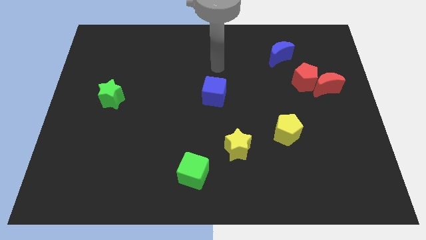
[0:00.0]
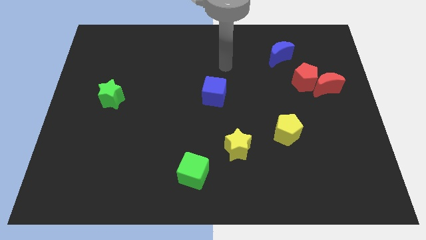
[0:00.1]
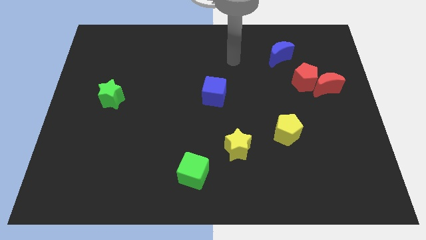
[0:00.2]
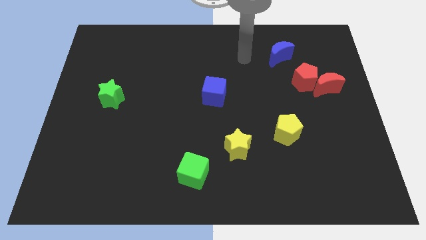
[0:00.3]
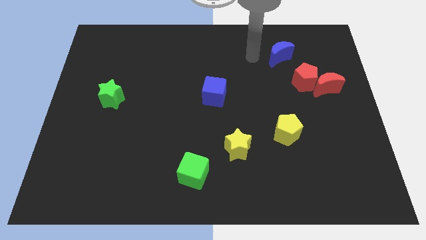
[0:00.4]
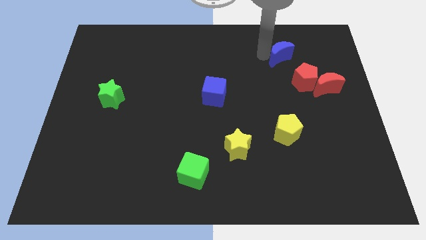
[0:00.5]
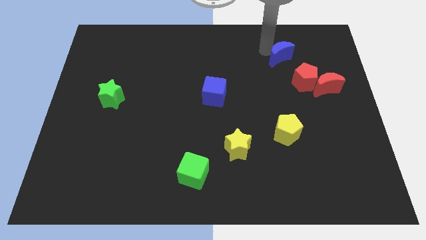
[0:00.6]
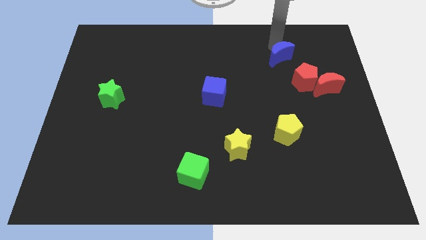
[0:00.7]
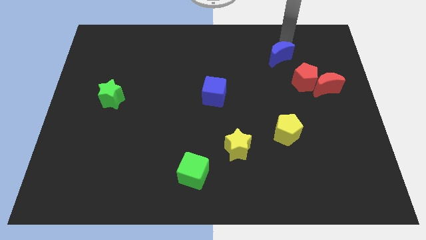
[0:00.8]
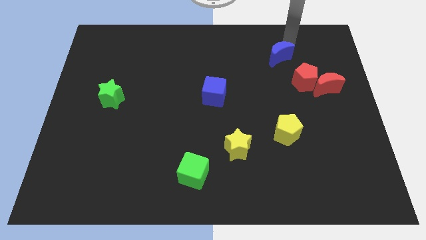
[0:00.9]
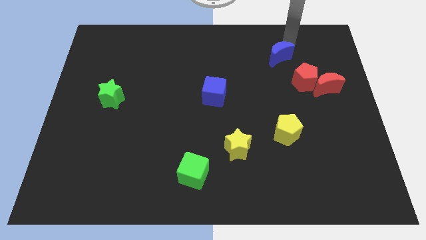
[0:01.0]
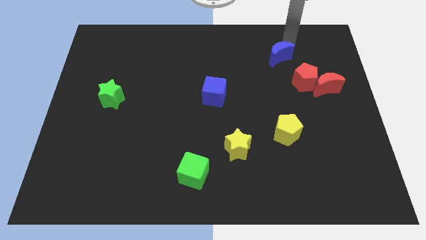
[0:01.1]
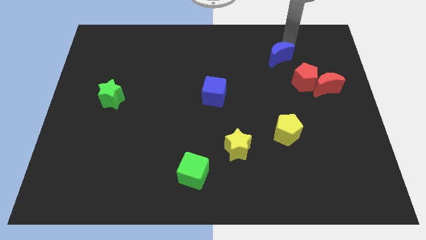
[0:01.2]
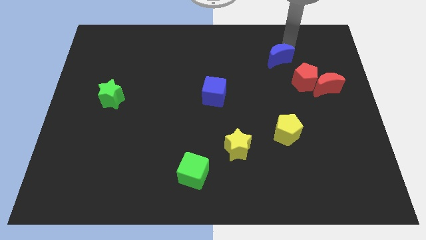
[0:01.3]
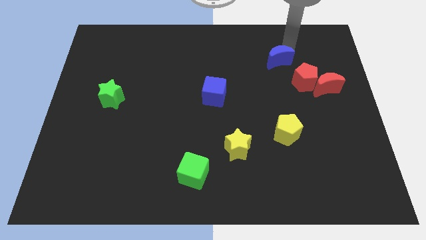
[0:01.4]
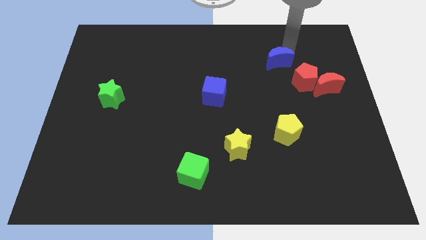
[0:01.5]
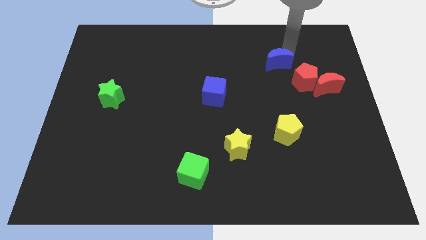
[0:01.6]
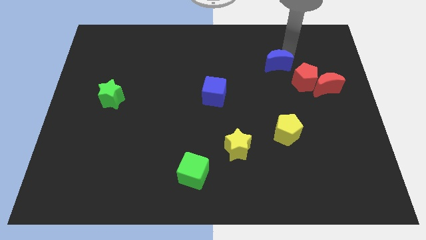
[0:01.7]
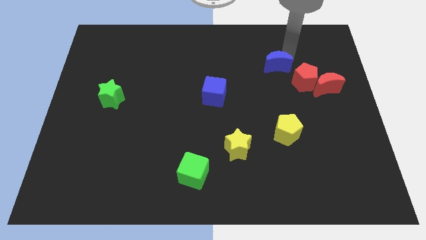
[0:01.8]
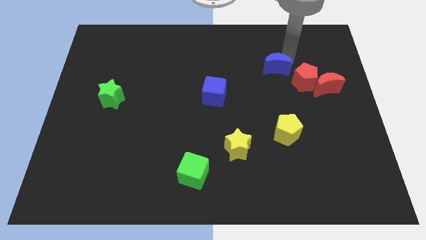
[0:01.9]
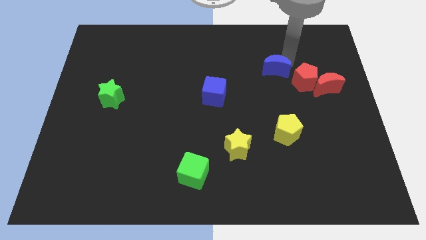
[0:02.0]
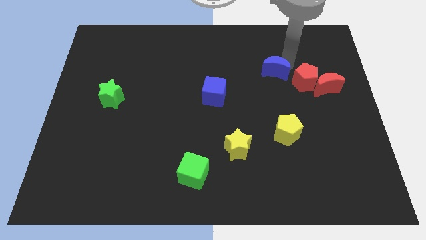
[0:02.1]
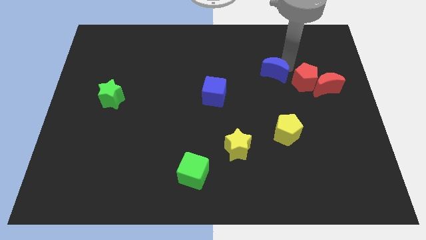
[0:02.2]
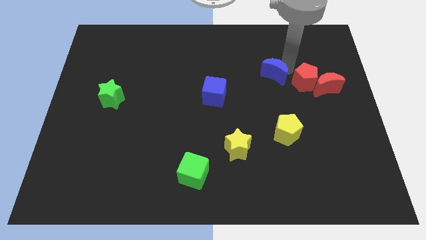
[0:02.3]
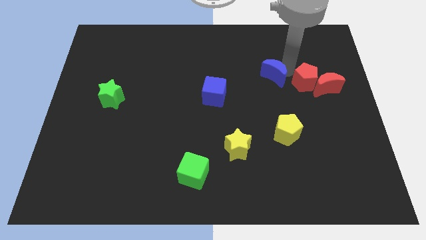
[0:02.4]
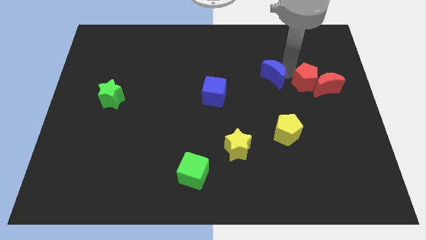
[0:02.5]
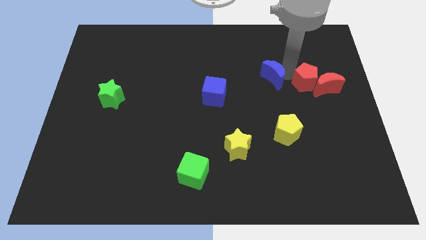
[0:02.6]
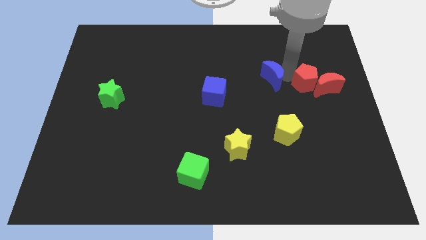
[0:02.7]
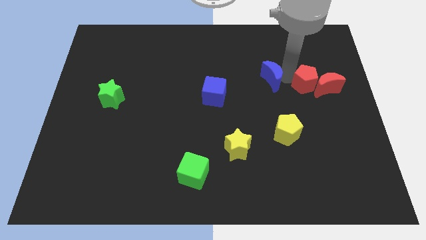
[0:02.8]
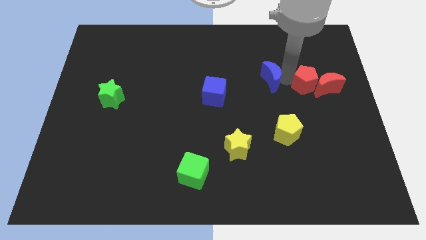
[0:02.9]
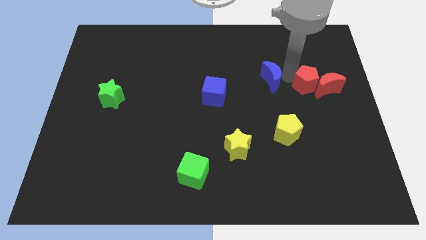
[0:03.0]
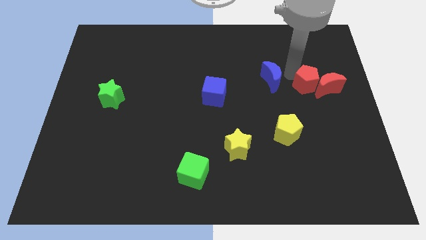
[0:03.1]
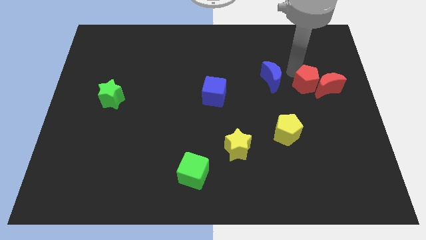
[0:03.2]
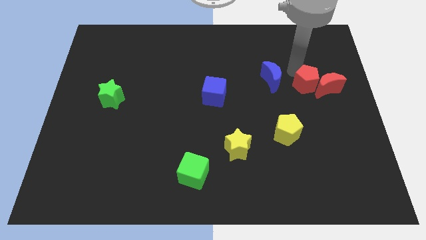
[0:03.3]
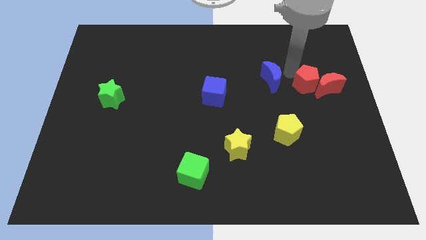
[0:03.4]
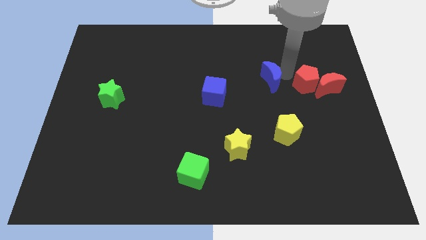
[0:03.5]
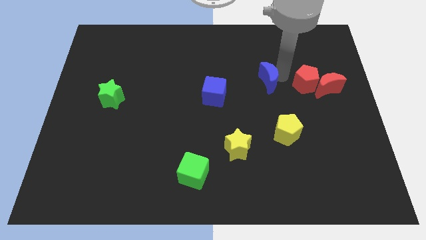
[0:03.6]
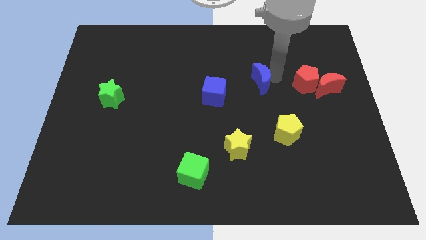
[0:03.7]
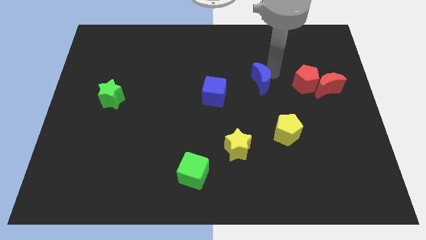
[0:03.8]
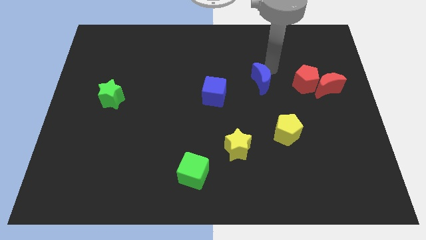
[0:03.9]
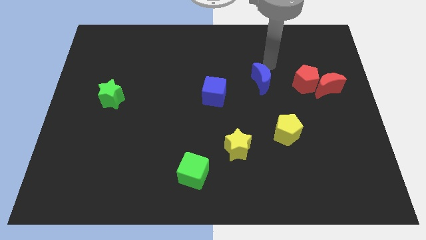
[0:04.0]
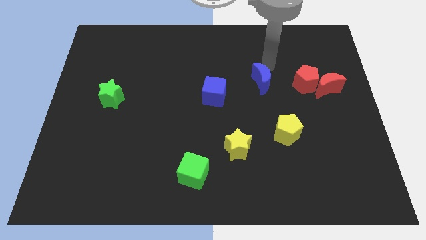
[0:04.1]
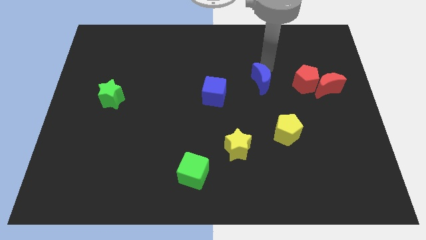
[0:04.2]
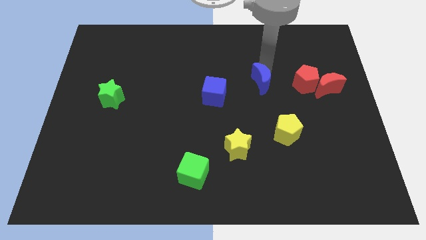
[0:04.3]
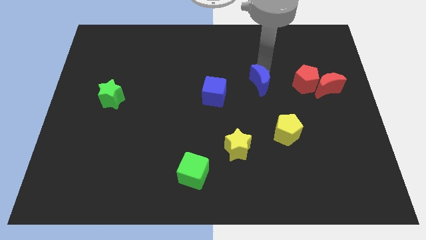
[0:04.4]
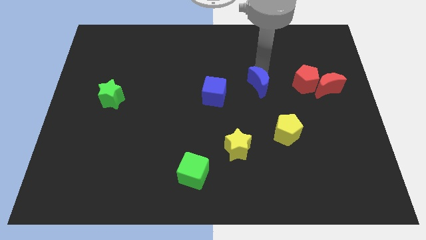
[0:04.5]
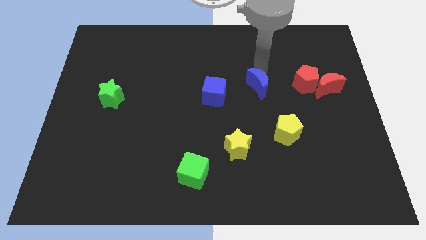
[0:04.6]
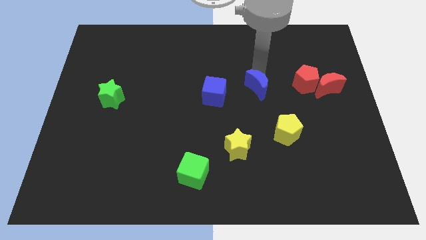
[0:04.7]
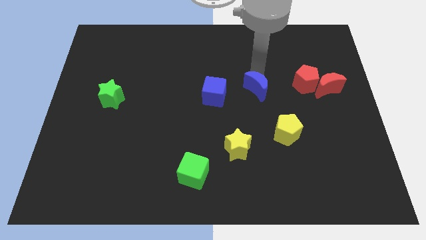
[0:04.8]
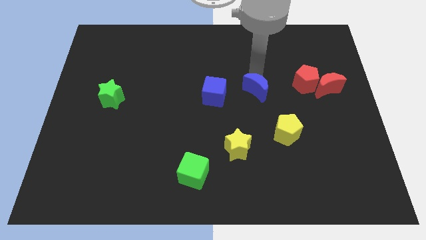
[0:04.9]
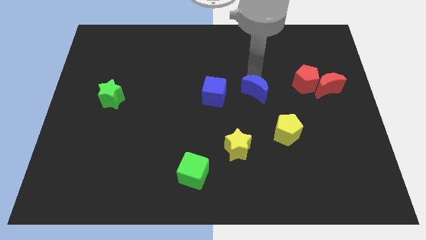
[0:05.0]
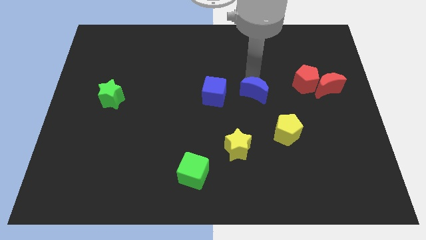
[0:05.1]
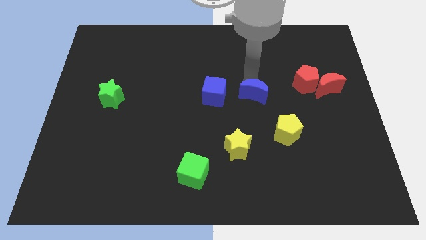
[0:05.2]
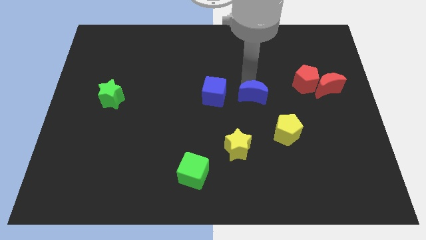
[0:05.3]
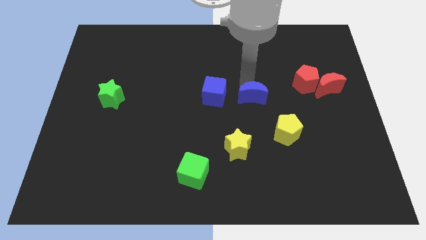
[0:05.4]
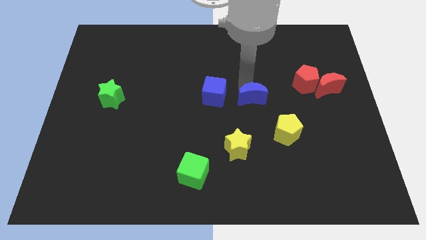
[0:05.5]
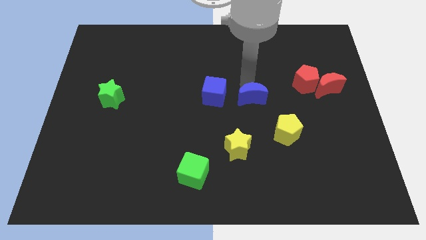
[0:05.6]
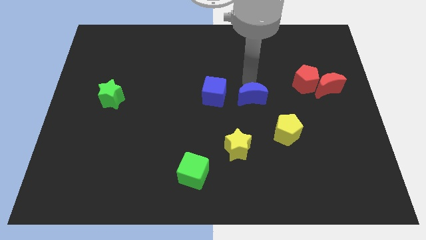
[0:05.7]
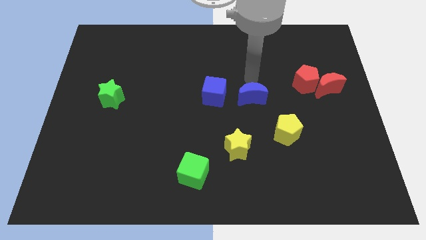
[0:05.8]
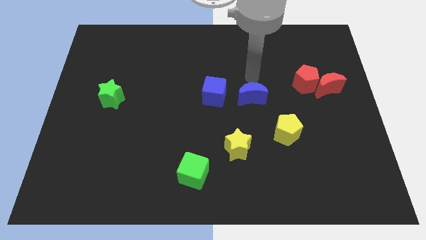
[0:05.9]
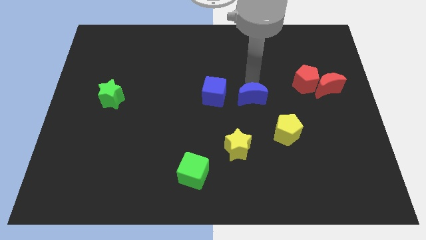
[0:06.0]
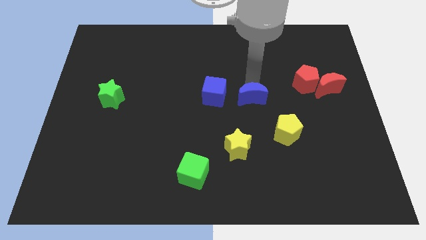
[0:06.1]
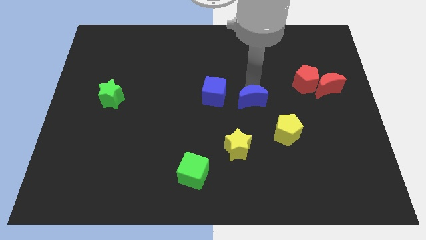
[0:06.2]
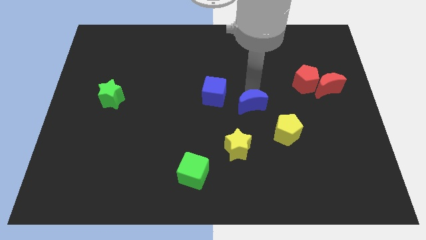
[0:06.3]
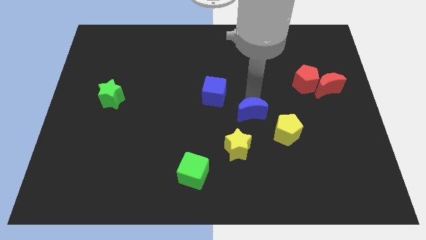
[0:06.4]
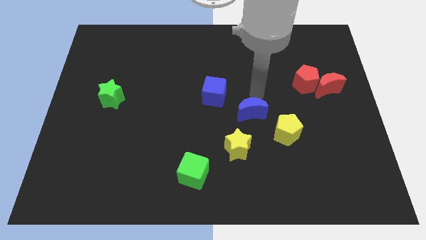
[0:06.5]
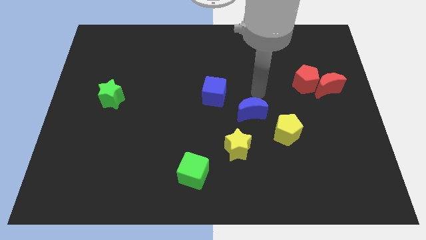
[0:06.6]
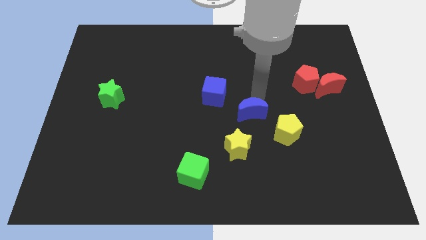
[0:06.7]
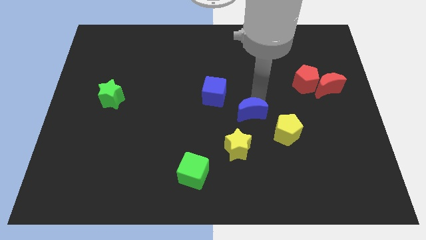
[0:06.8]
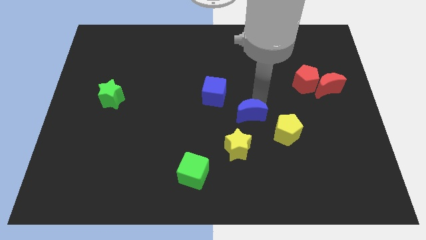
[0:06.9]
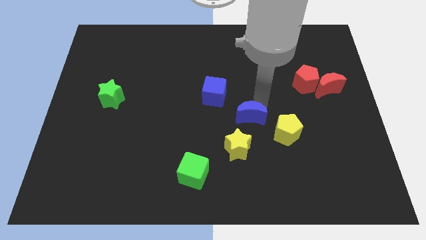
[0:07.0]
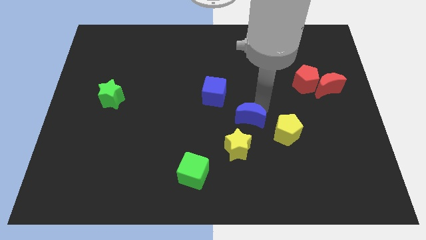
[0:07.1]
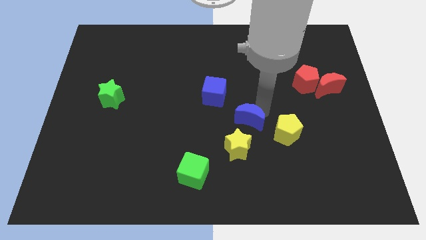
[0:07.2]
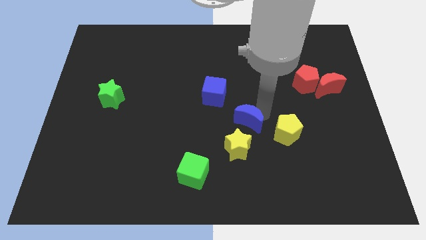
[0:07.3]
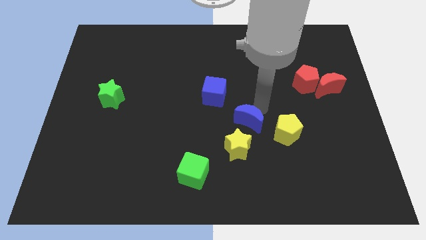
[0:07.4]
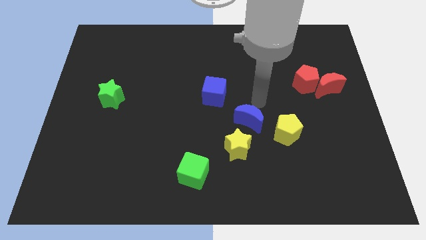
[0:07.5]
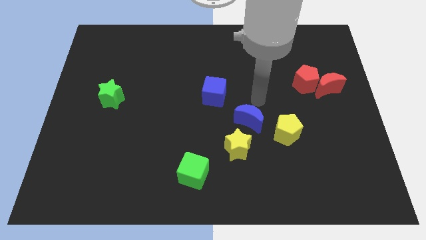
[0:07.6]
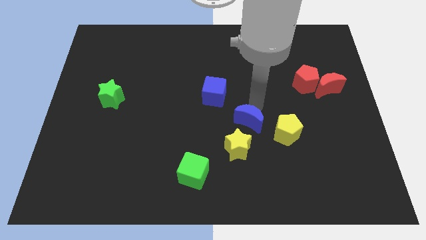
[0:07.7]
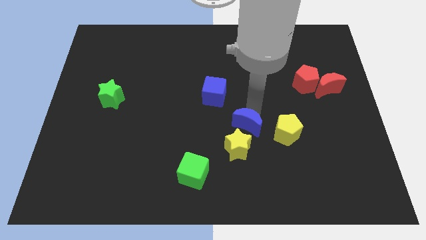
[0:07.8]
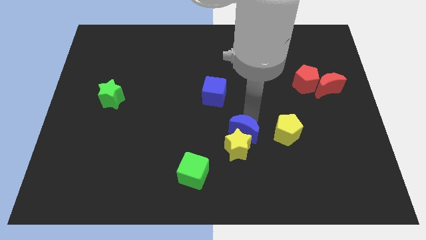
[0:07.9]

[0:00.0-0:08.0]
slide the blue moon next to the yellow star
